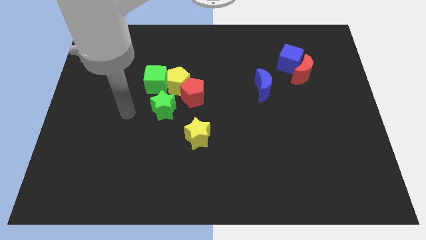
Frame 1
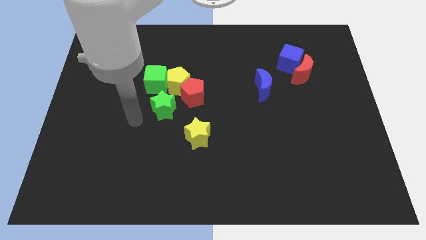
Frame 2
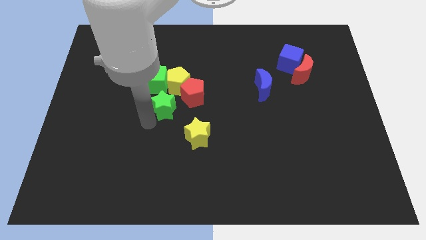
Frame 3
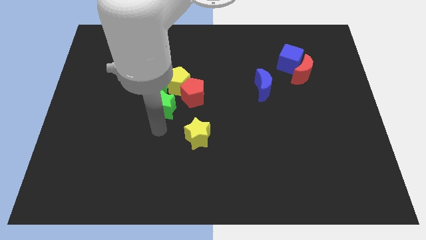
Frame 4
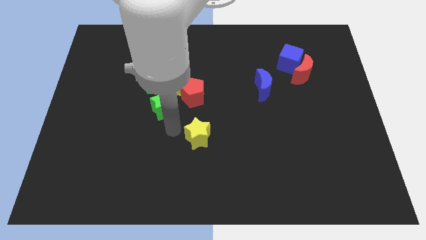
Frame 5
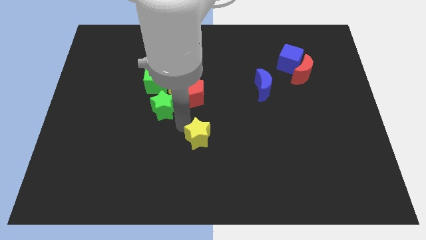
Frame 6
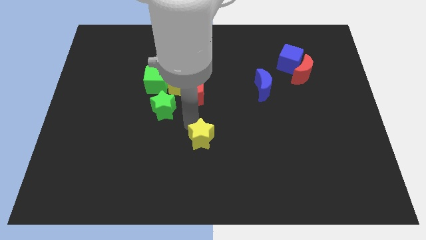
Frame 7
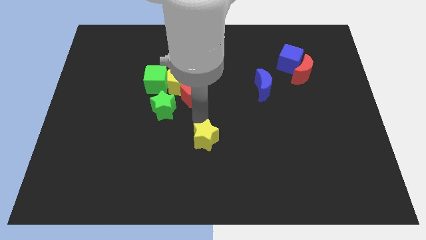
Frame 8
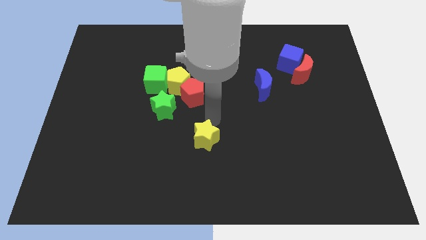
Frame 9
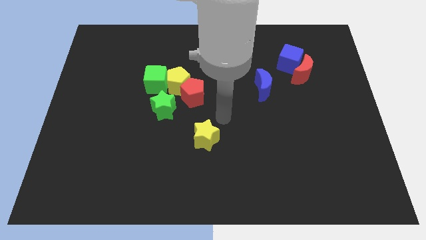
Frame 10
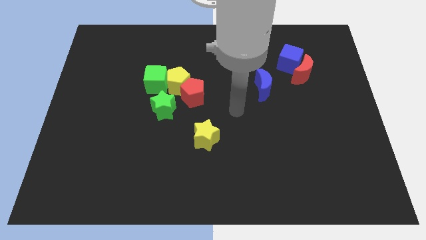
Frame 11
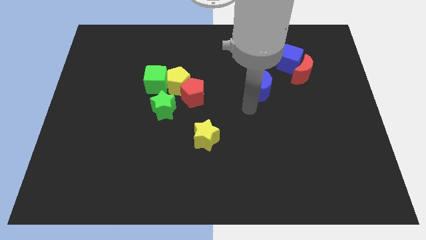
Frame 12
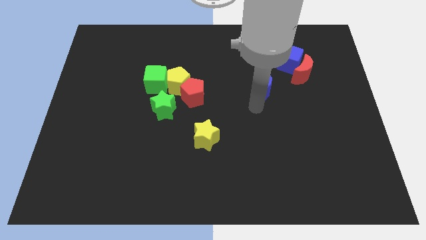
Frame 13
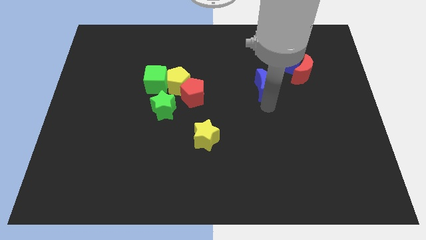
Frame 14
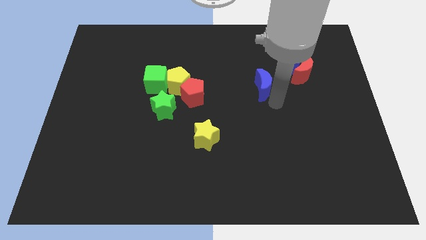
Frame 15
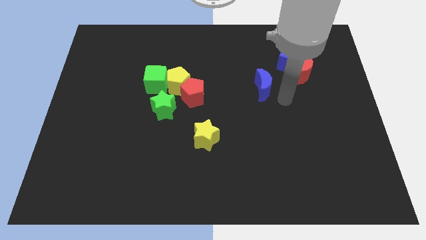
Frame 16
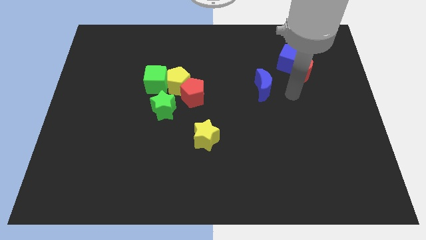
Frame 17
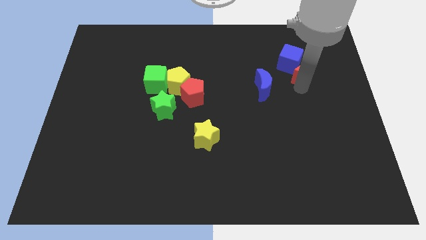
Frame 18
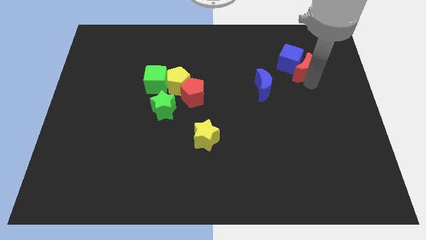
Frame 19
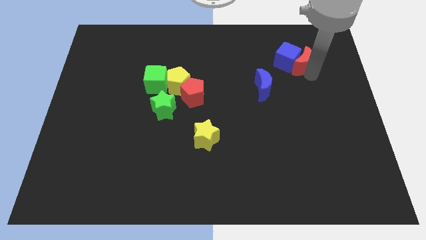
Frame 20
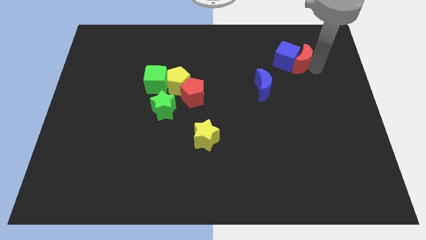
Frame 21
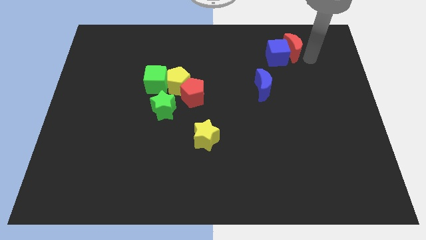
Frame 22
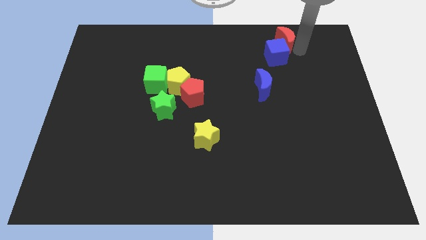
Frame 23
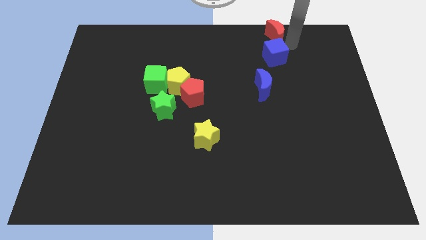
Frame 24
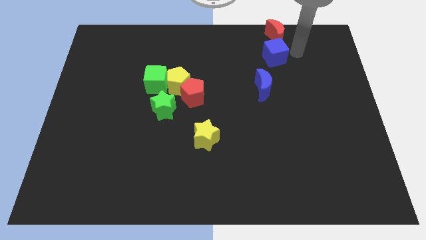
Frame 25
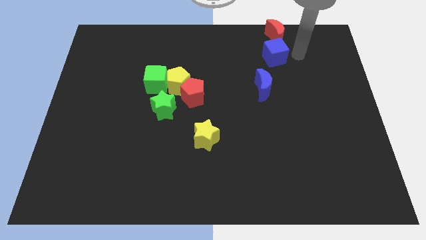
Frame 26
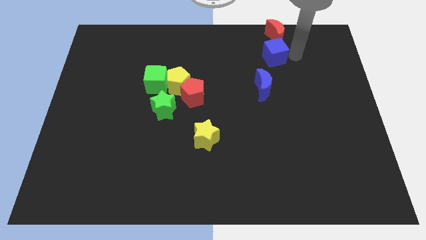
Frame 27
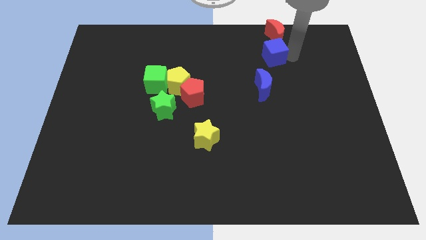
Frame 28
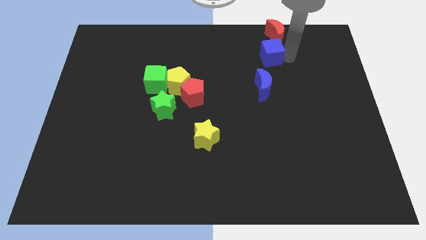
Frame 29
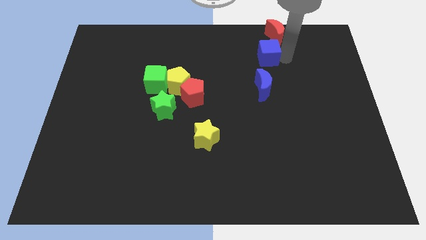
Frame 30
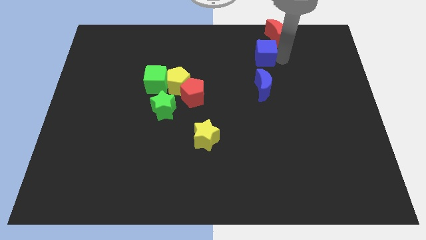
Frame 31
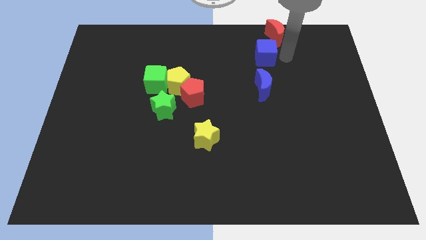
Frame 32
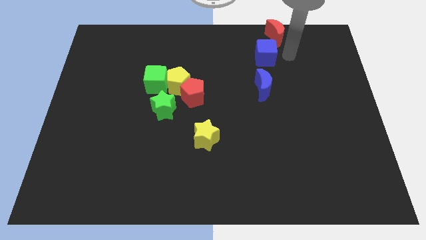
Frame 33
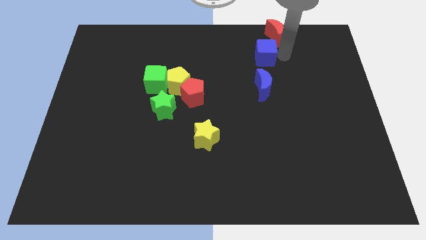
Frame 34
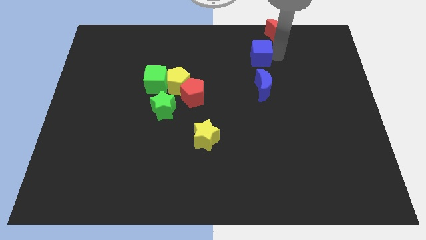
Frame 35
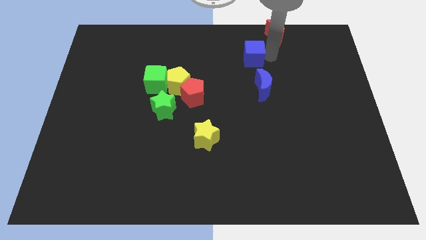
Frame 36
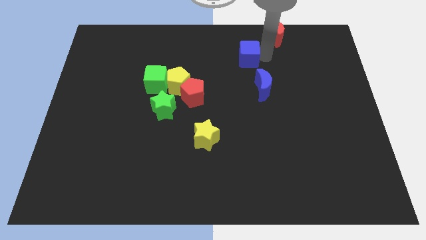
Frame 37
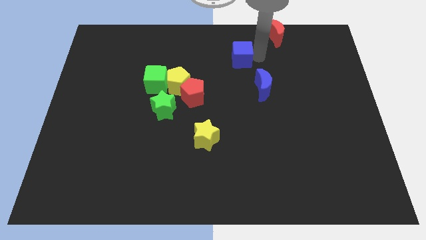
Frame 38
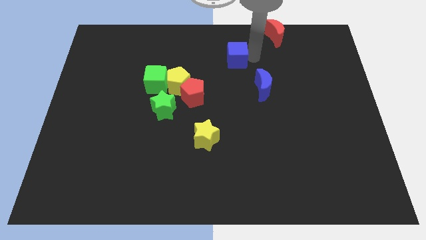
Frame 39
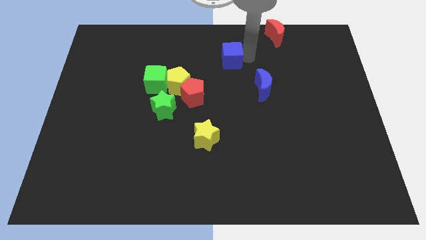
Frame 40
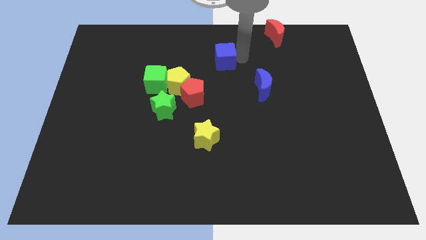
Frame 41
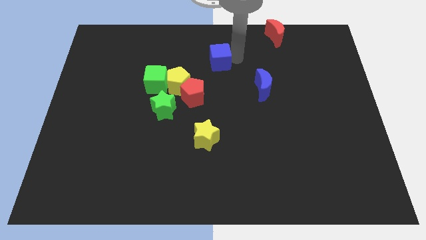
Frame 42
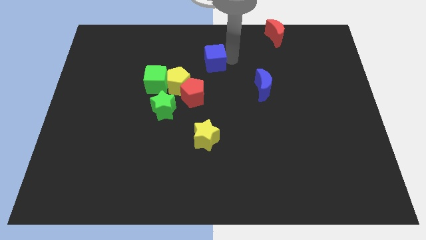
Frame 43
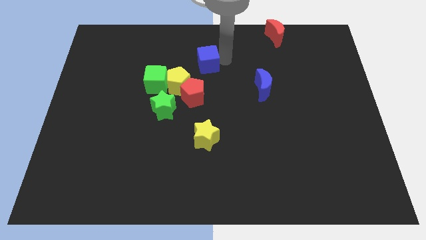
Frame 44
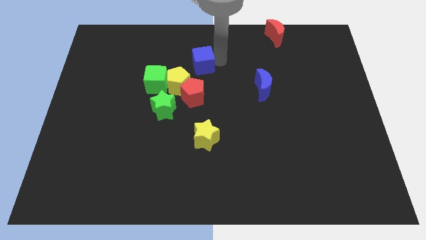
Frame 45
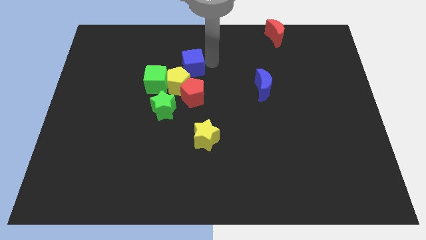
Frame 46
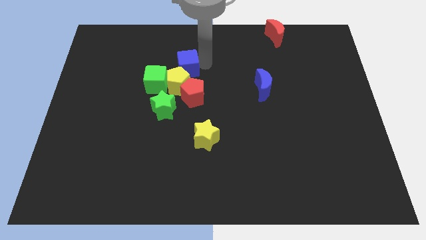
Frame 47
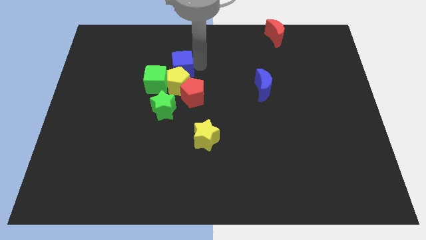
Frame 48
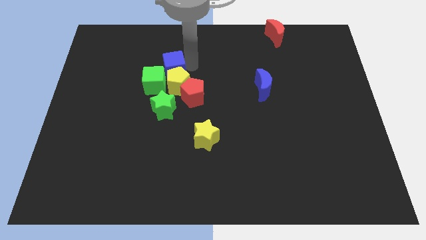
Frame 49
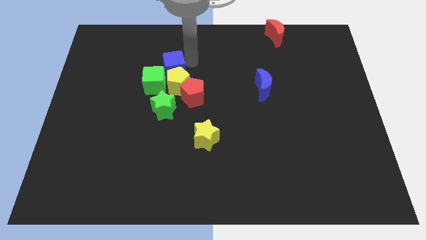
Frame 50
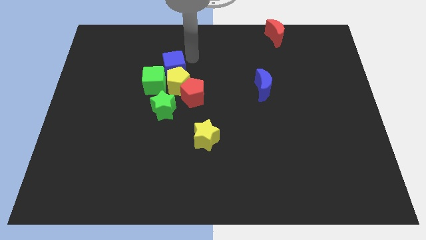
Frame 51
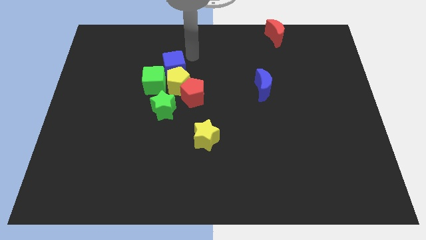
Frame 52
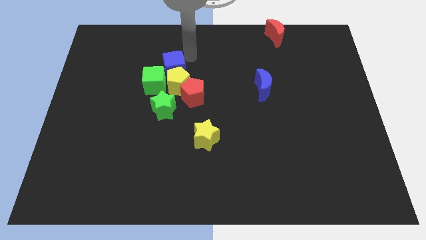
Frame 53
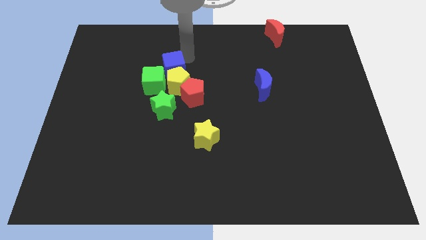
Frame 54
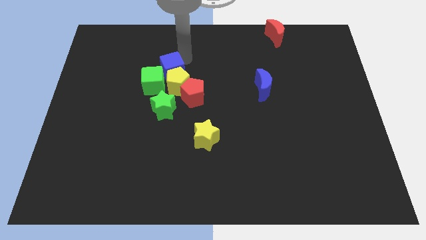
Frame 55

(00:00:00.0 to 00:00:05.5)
push the blue cube next to the green cube

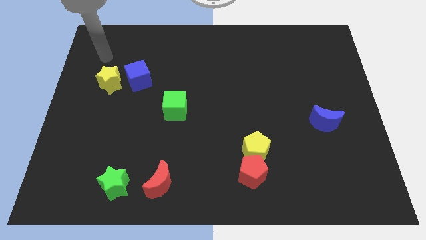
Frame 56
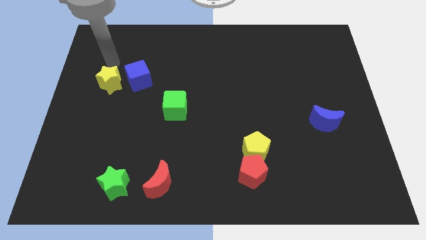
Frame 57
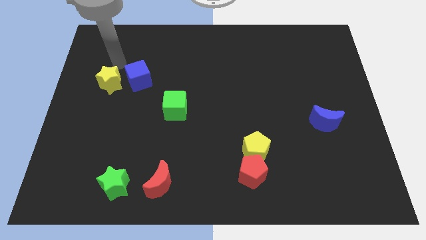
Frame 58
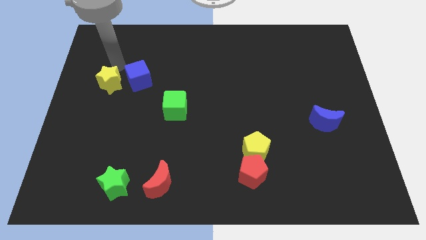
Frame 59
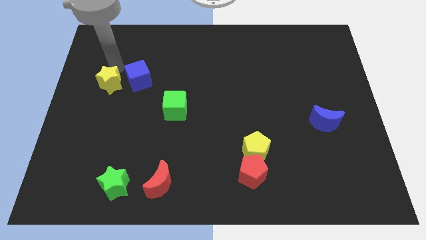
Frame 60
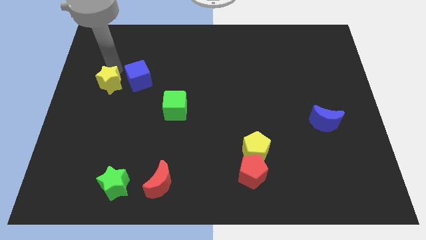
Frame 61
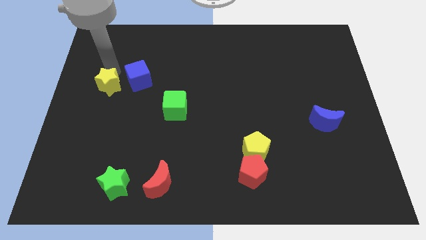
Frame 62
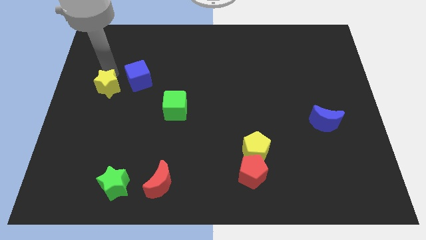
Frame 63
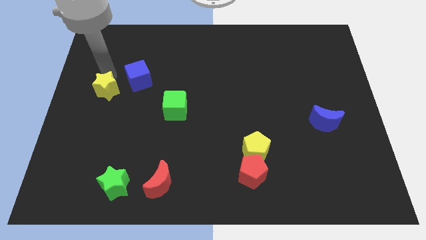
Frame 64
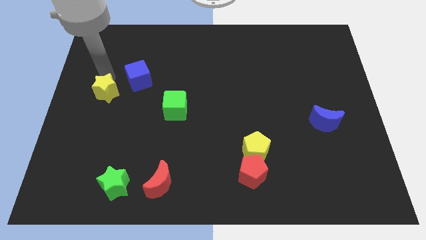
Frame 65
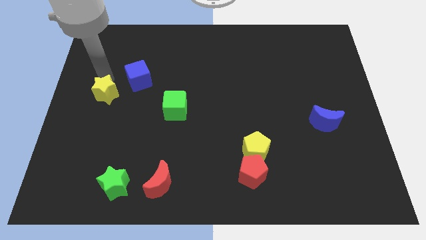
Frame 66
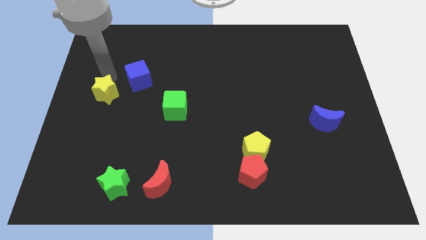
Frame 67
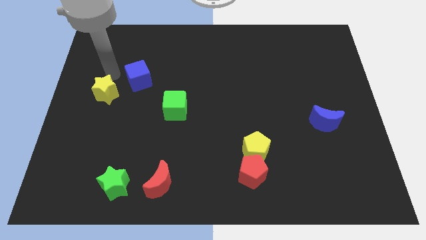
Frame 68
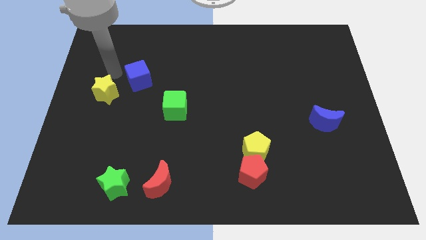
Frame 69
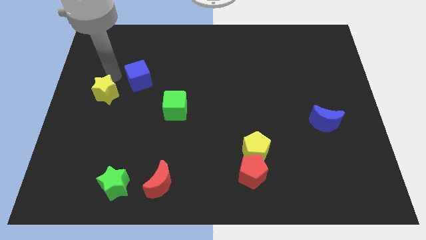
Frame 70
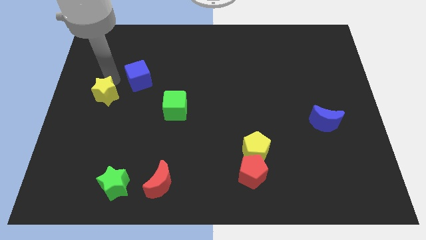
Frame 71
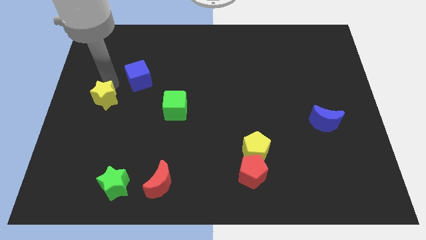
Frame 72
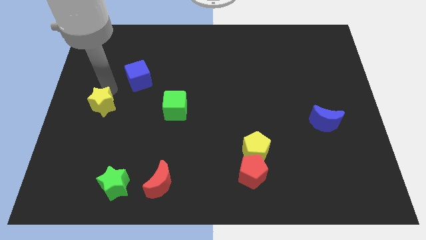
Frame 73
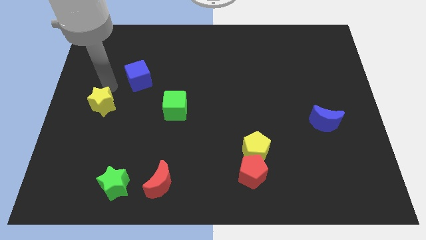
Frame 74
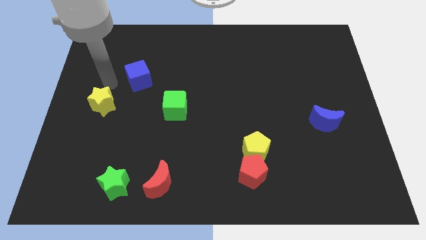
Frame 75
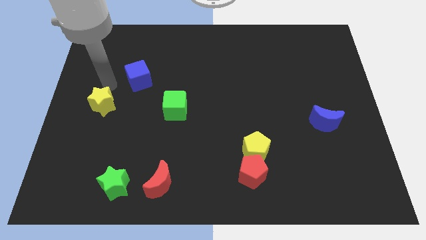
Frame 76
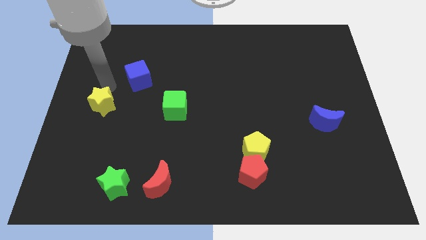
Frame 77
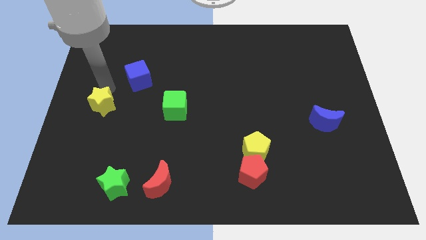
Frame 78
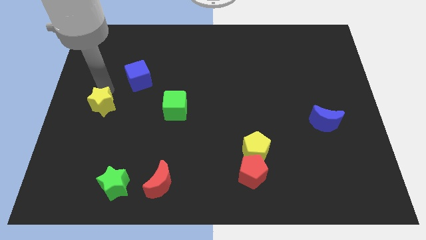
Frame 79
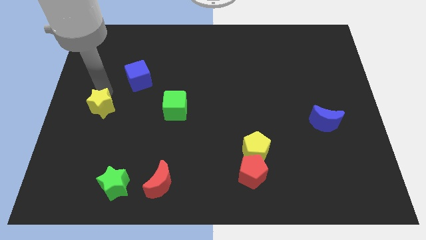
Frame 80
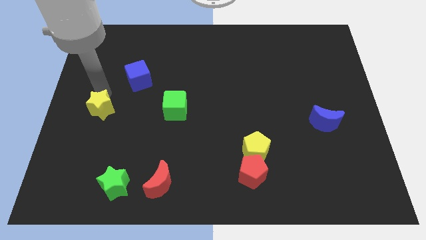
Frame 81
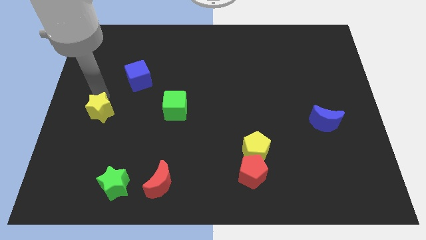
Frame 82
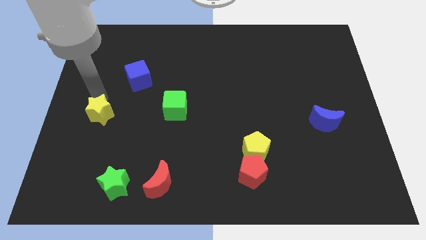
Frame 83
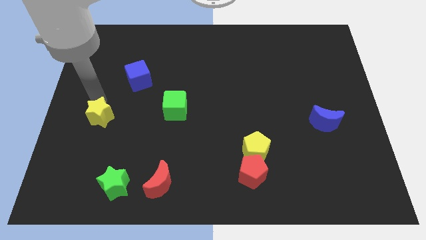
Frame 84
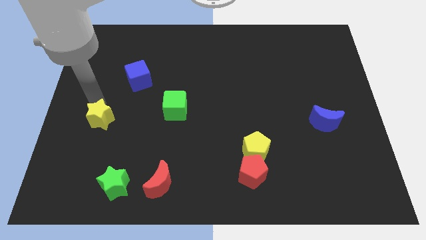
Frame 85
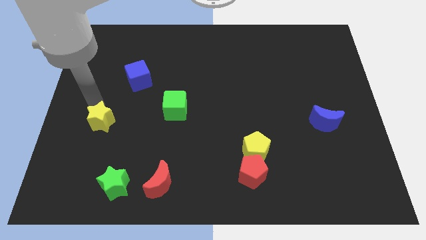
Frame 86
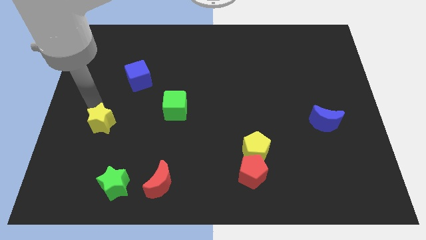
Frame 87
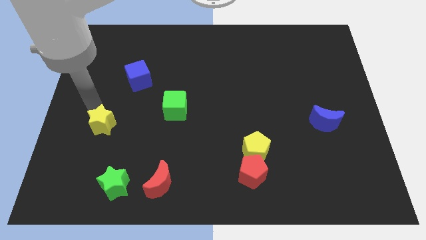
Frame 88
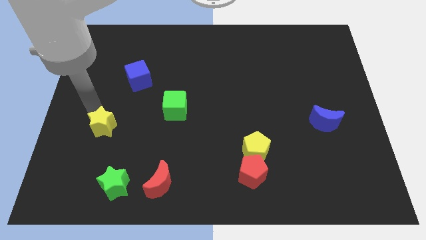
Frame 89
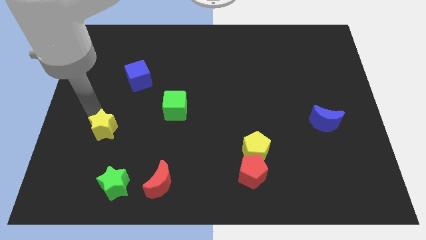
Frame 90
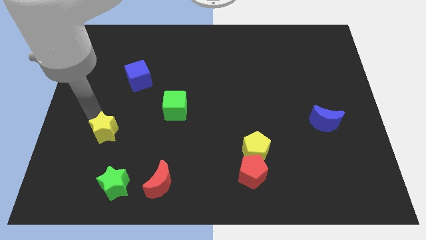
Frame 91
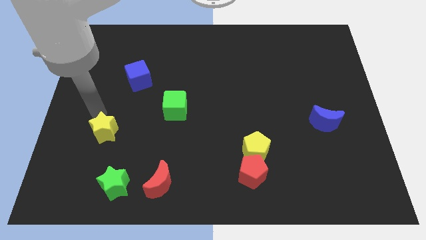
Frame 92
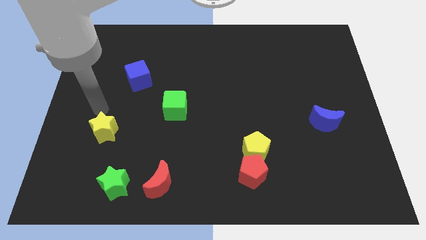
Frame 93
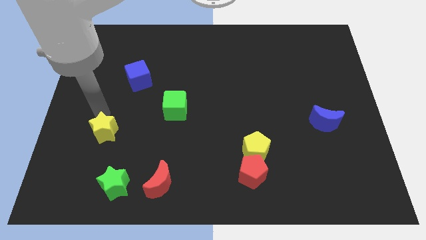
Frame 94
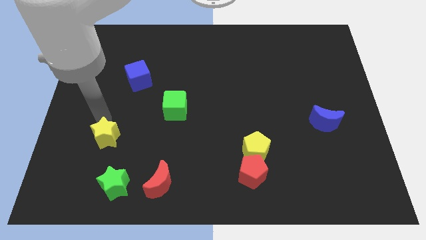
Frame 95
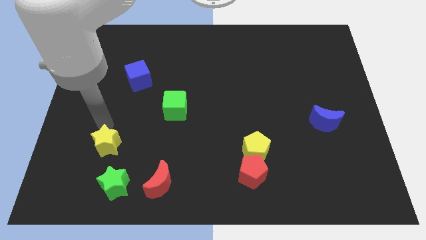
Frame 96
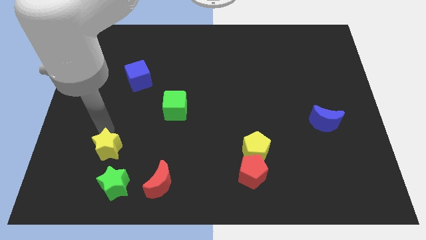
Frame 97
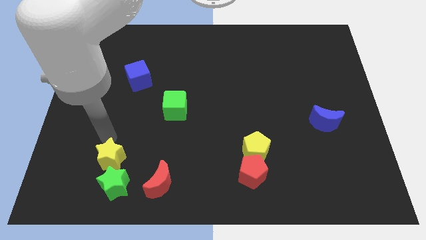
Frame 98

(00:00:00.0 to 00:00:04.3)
move the yellow star towards the green star
